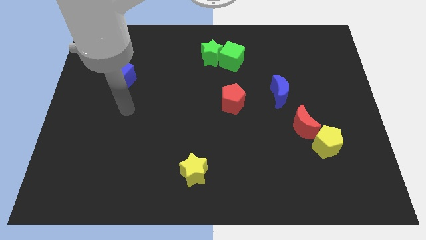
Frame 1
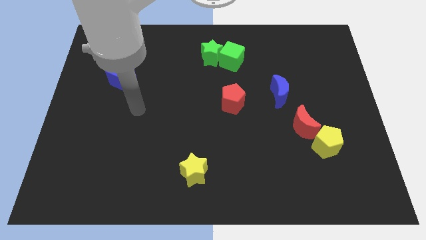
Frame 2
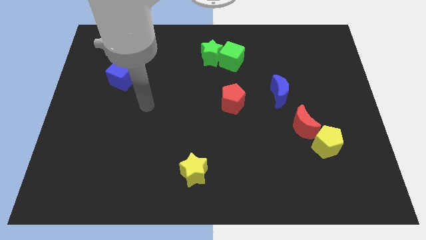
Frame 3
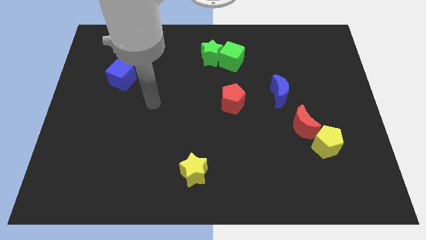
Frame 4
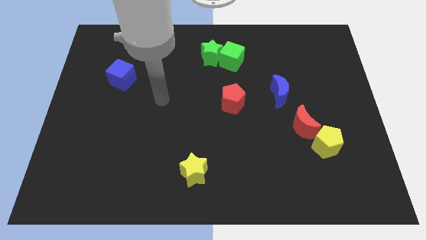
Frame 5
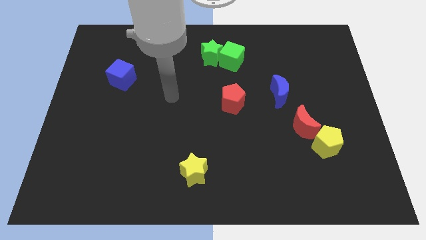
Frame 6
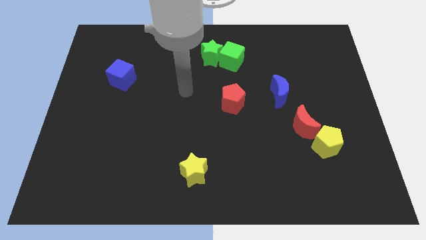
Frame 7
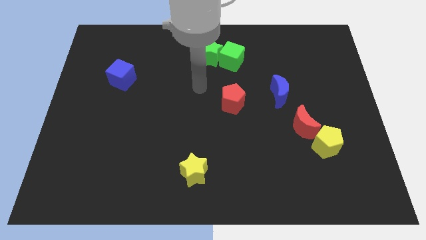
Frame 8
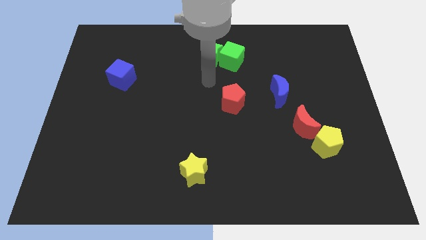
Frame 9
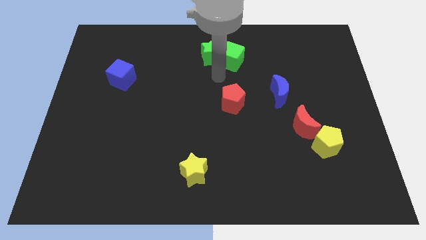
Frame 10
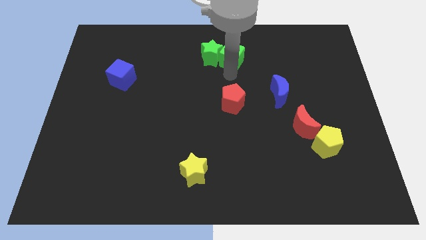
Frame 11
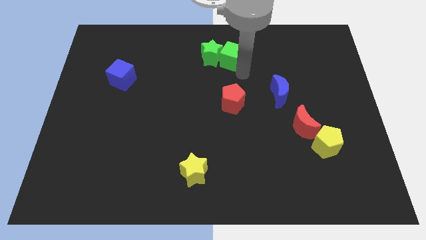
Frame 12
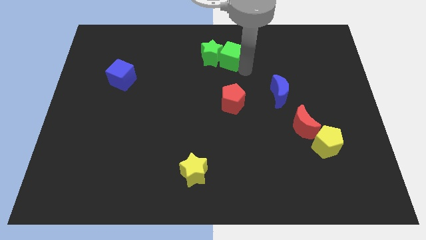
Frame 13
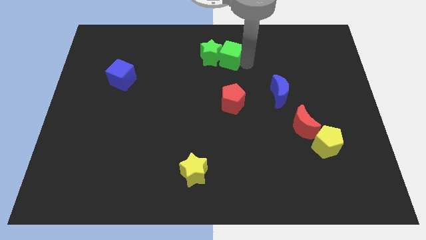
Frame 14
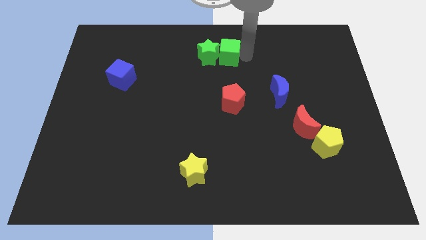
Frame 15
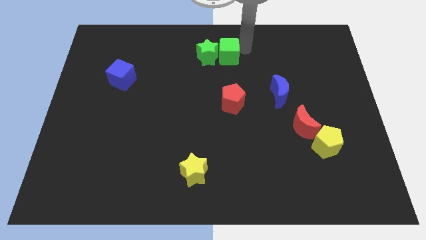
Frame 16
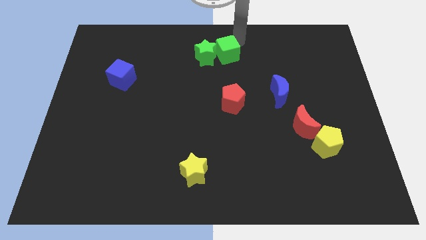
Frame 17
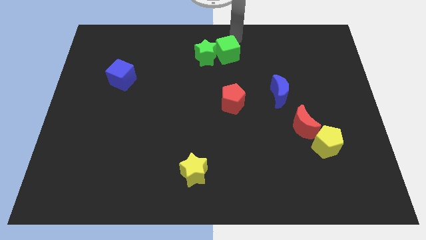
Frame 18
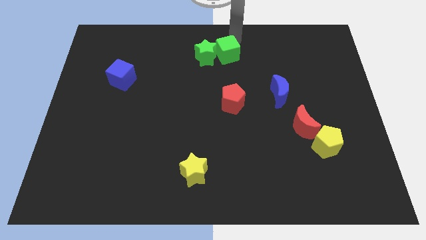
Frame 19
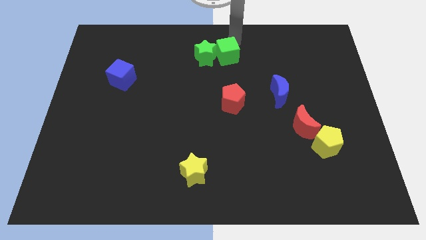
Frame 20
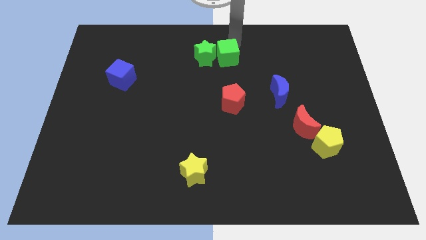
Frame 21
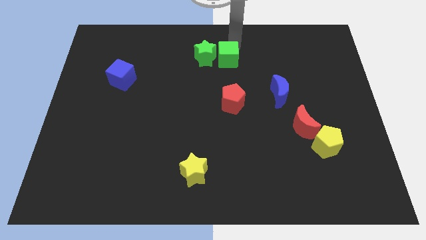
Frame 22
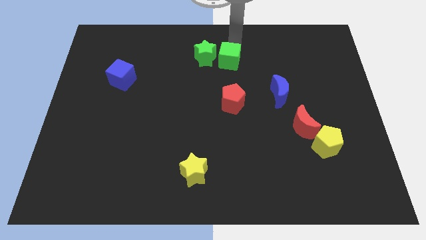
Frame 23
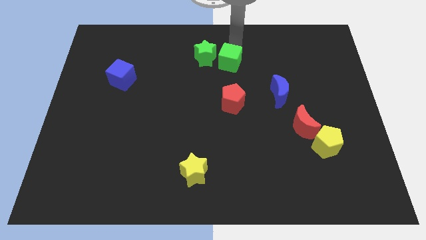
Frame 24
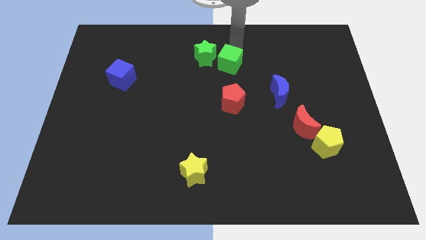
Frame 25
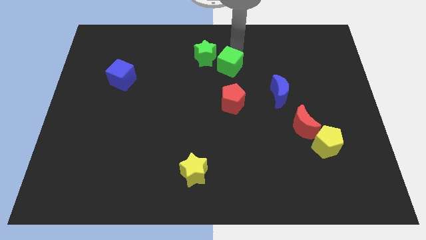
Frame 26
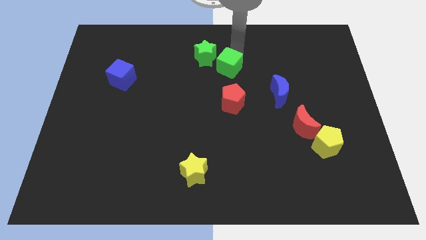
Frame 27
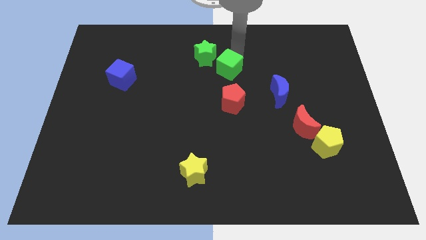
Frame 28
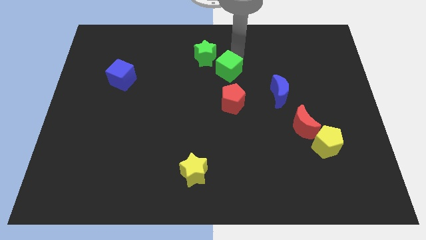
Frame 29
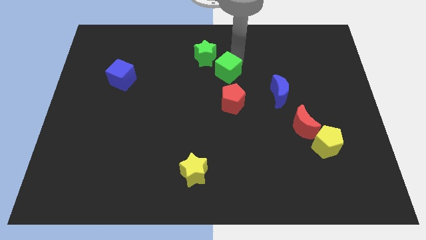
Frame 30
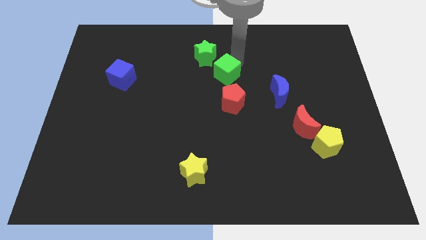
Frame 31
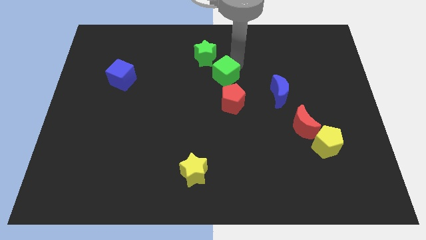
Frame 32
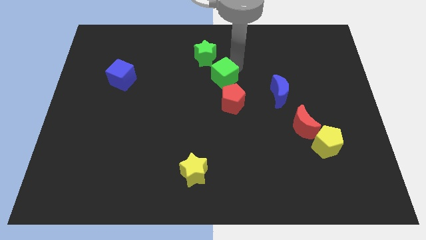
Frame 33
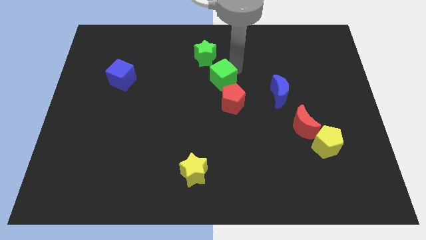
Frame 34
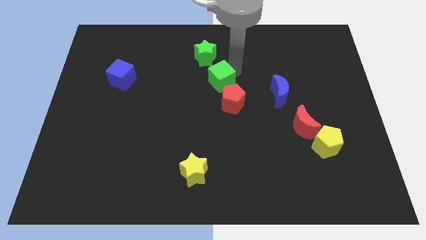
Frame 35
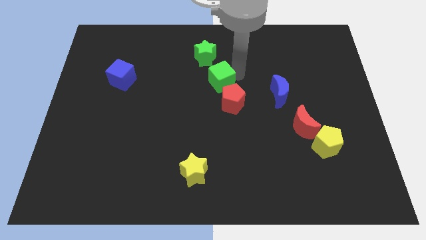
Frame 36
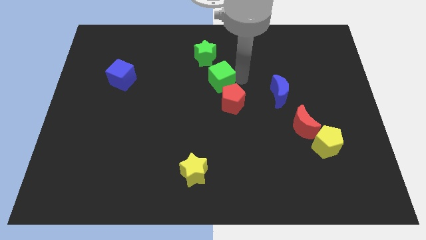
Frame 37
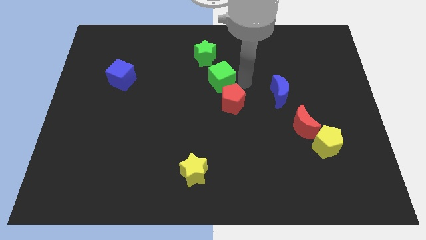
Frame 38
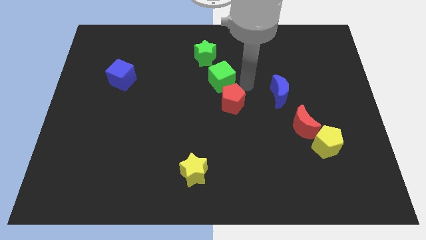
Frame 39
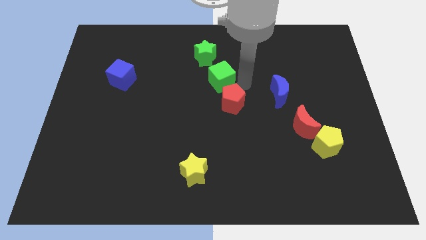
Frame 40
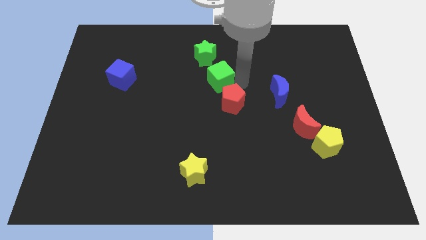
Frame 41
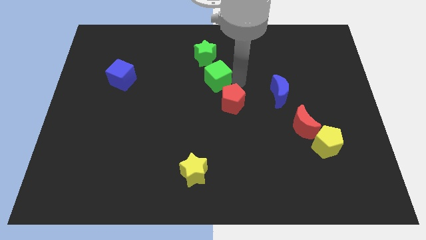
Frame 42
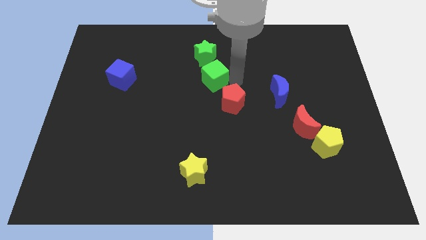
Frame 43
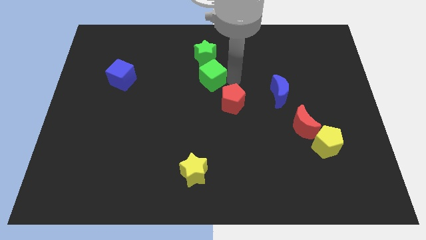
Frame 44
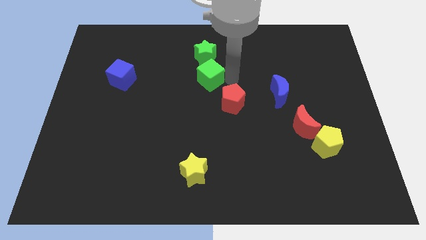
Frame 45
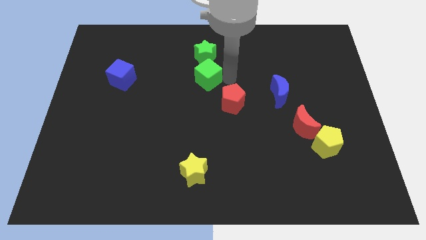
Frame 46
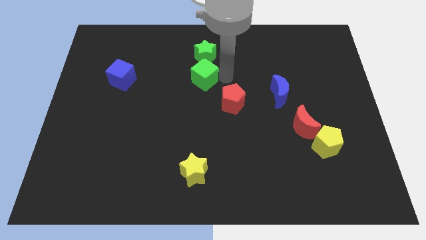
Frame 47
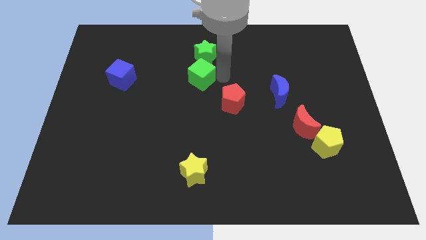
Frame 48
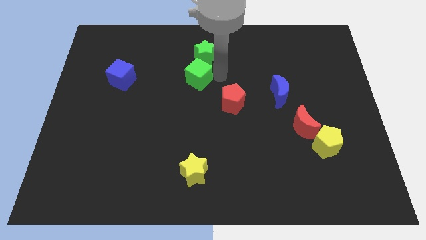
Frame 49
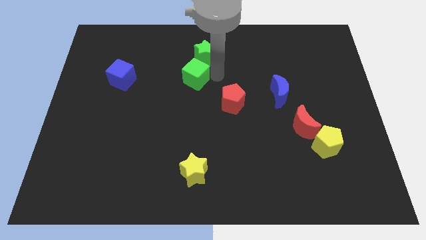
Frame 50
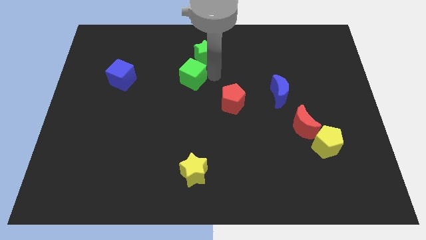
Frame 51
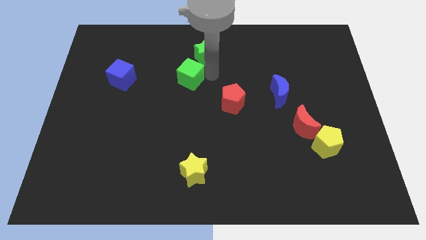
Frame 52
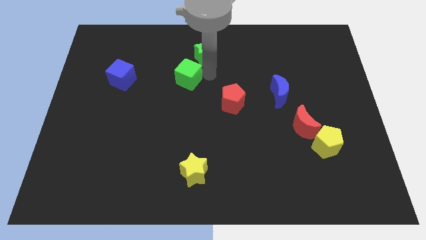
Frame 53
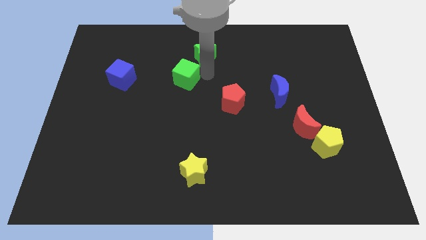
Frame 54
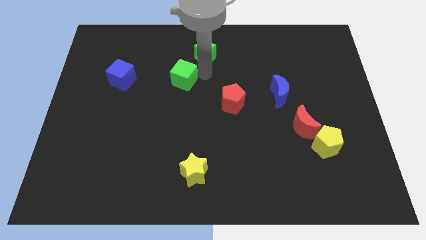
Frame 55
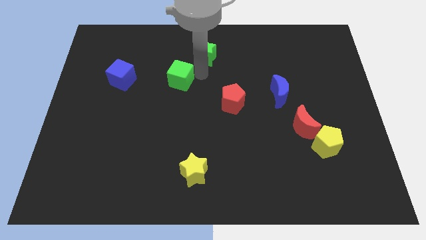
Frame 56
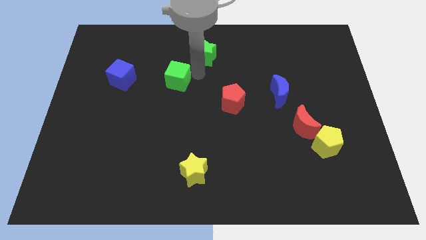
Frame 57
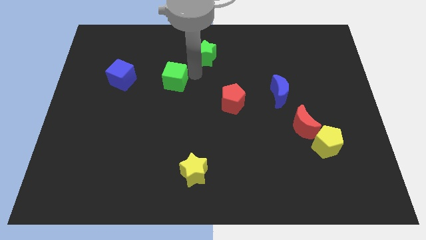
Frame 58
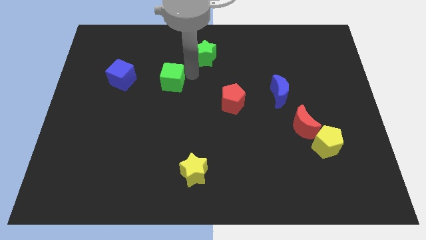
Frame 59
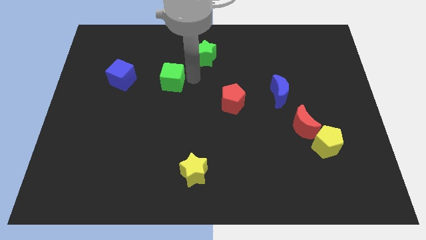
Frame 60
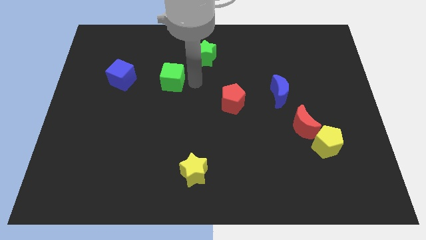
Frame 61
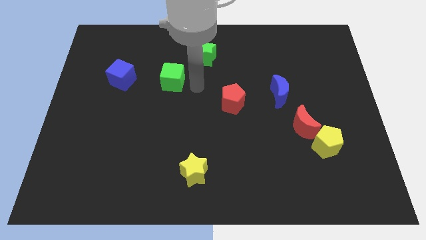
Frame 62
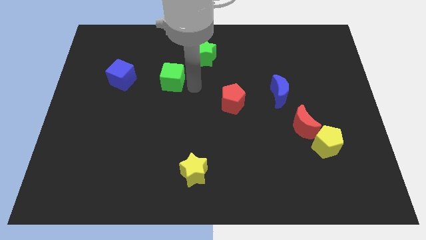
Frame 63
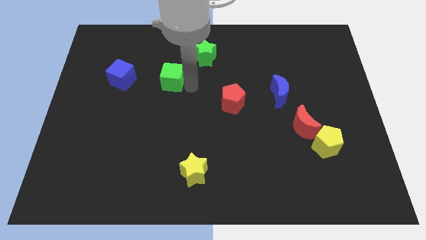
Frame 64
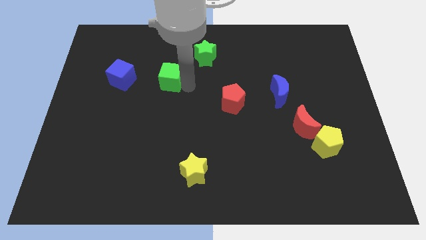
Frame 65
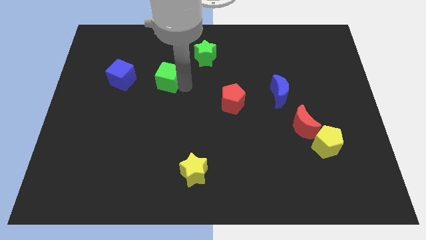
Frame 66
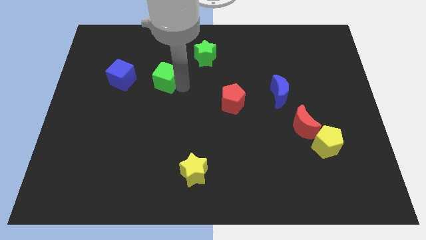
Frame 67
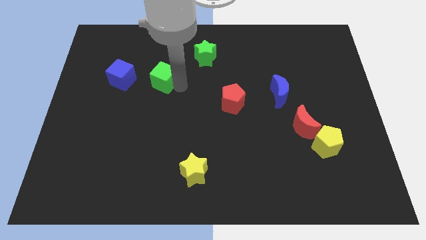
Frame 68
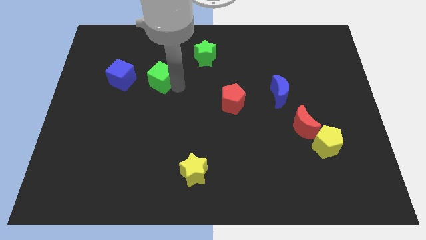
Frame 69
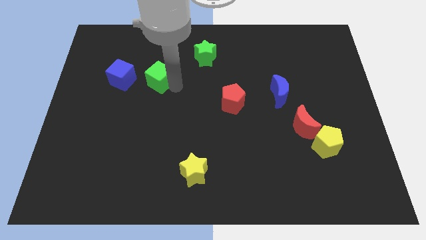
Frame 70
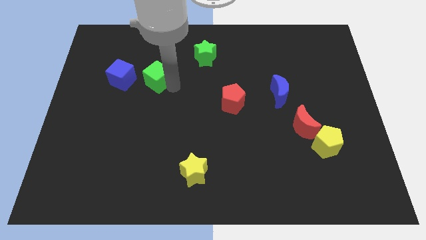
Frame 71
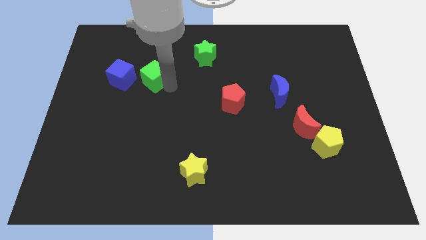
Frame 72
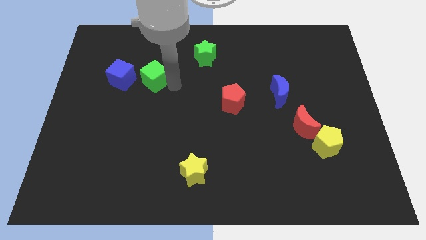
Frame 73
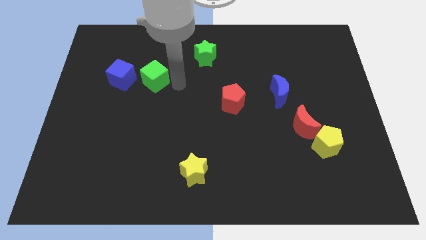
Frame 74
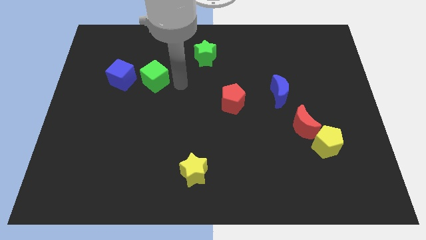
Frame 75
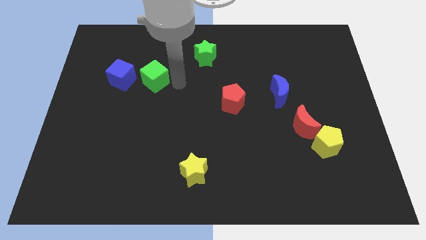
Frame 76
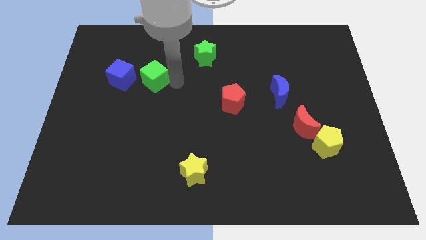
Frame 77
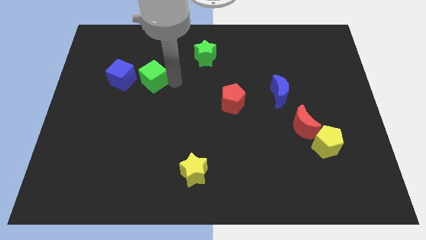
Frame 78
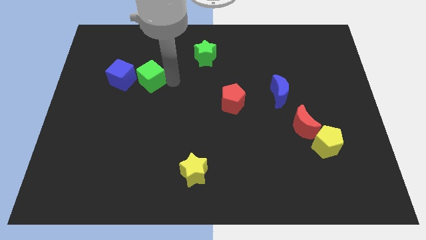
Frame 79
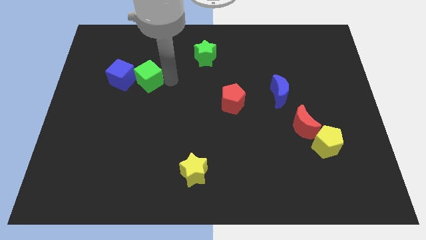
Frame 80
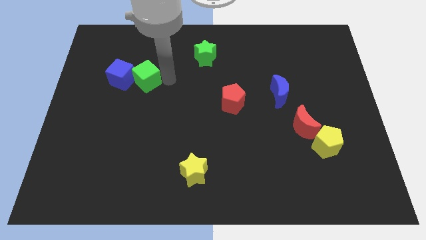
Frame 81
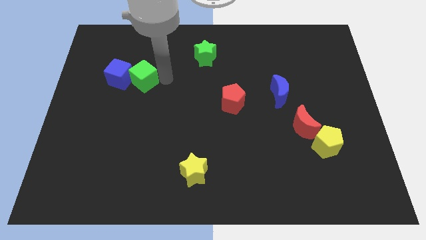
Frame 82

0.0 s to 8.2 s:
put the green cube close to the blue cube
